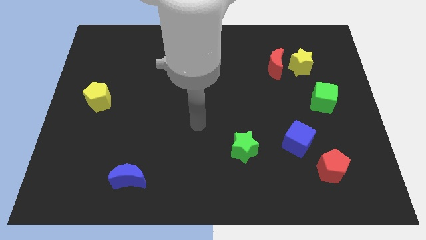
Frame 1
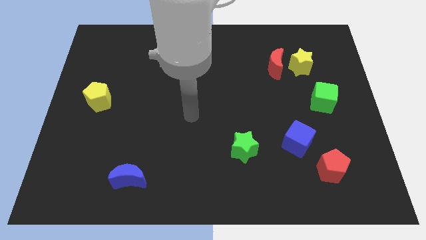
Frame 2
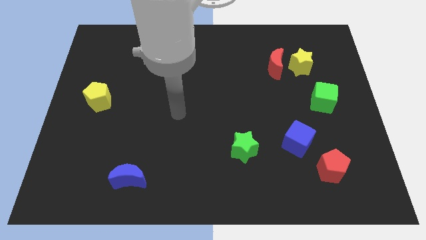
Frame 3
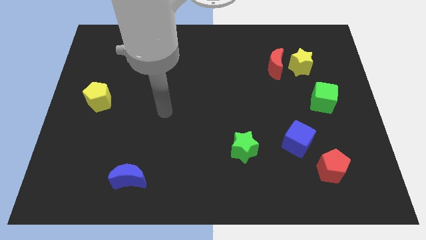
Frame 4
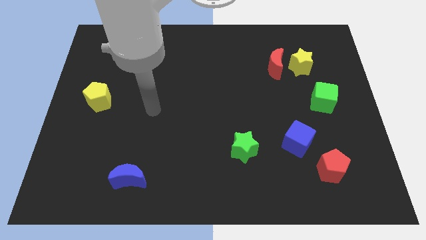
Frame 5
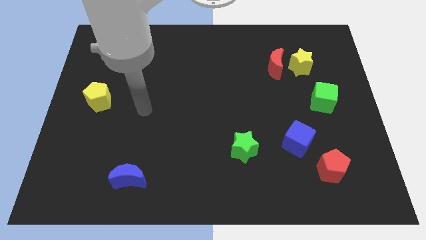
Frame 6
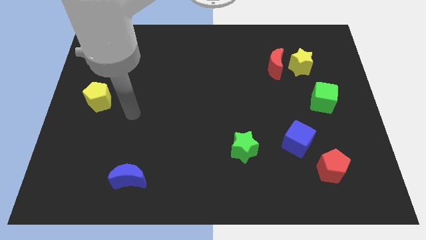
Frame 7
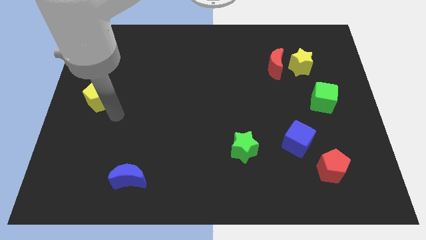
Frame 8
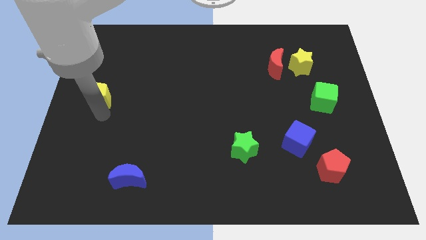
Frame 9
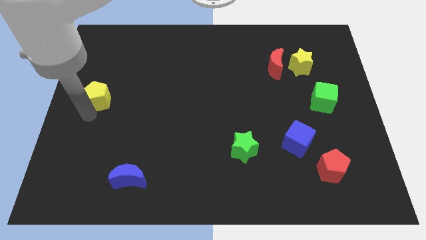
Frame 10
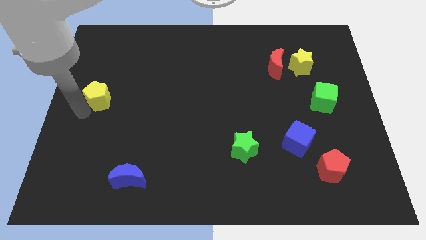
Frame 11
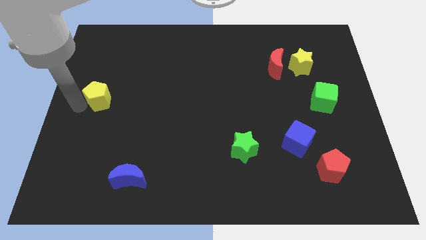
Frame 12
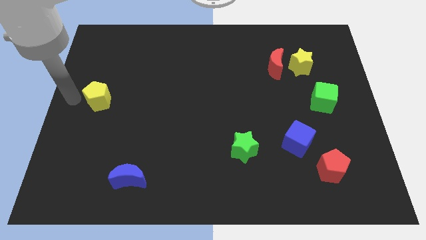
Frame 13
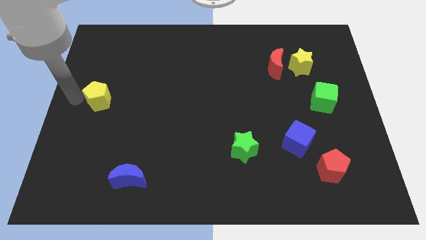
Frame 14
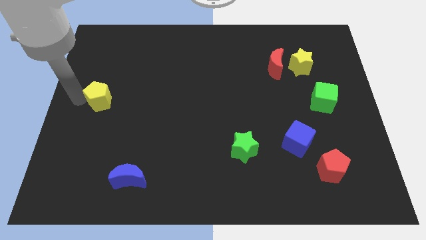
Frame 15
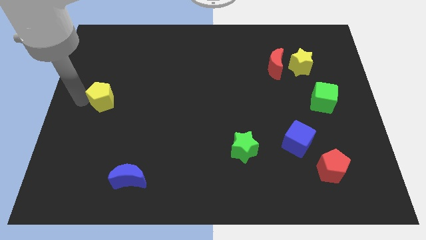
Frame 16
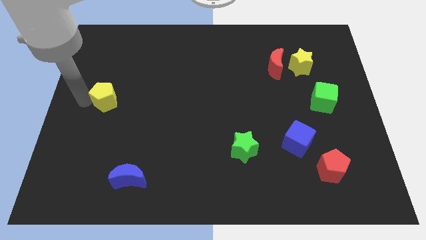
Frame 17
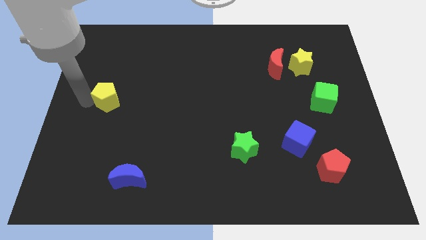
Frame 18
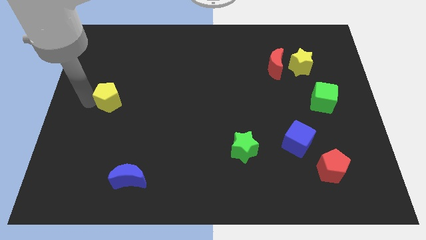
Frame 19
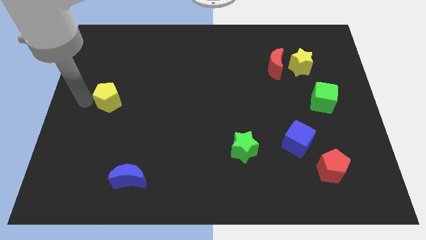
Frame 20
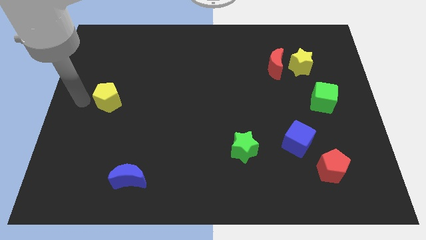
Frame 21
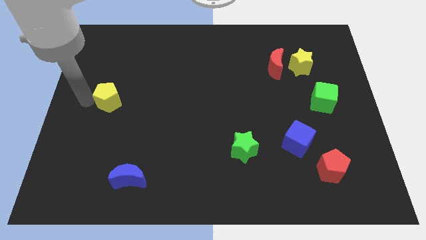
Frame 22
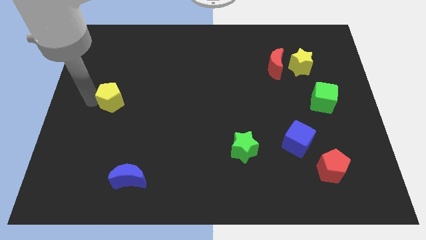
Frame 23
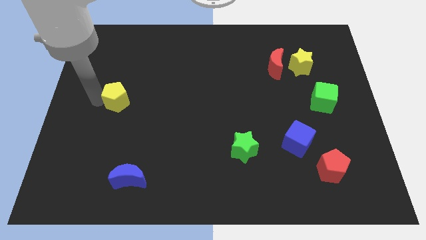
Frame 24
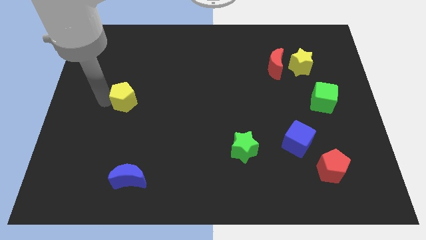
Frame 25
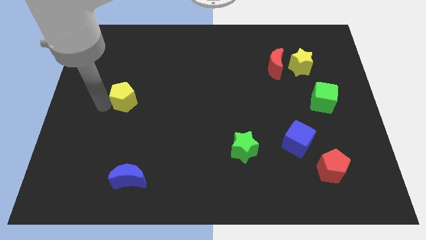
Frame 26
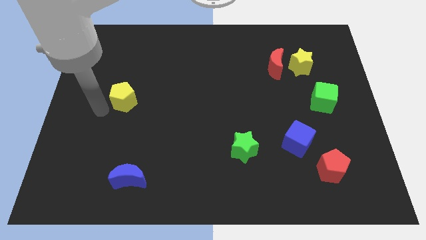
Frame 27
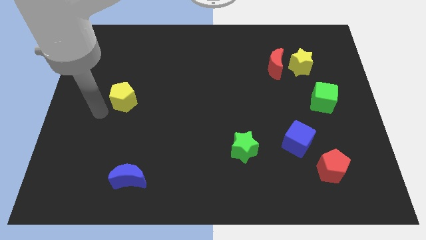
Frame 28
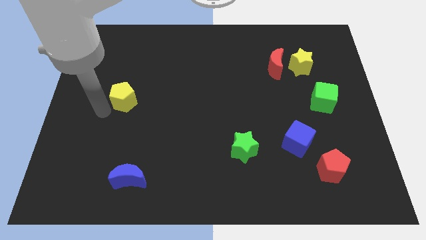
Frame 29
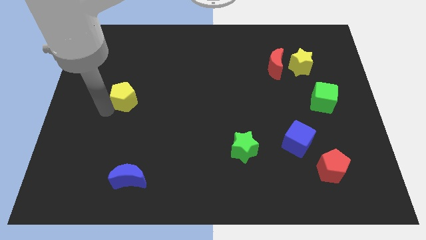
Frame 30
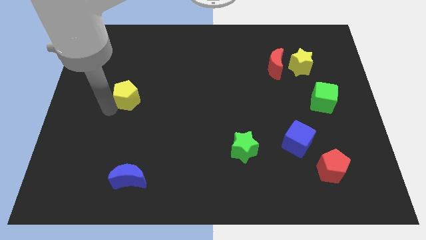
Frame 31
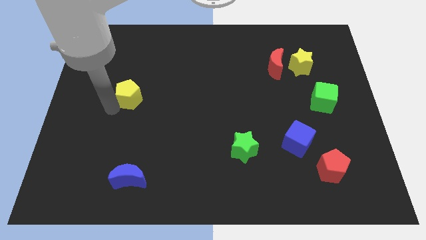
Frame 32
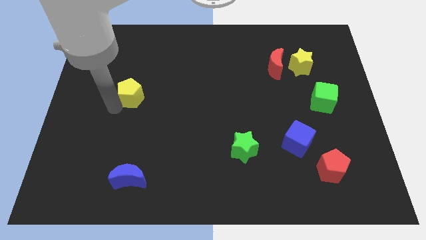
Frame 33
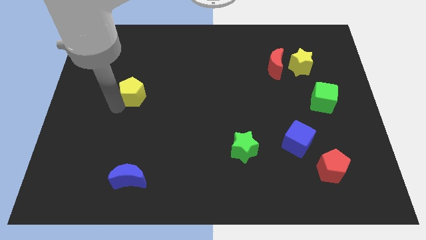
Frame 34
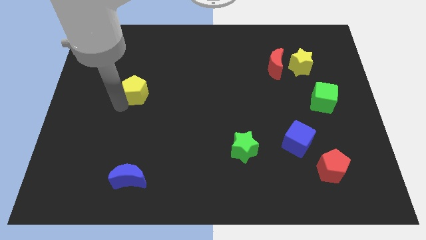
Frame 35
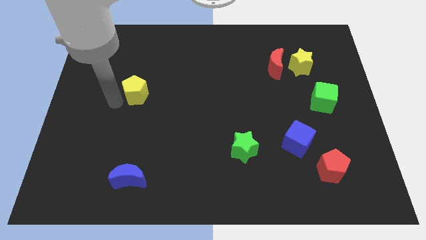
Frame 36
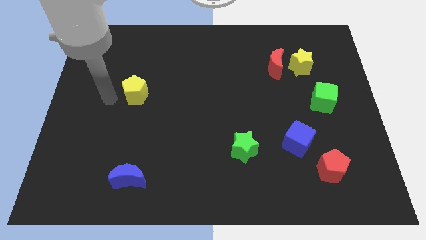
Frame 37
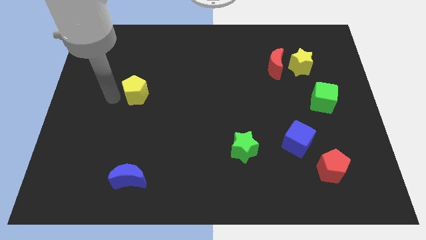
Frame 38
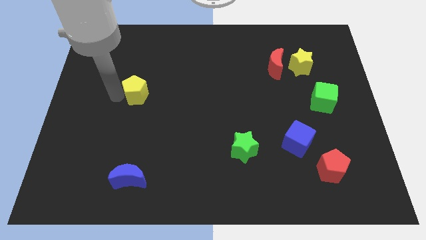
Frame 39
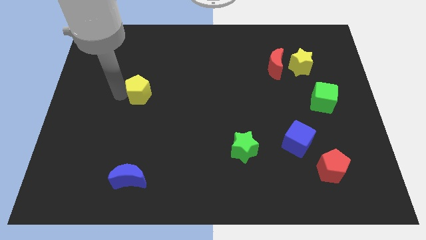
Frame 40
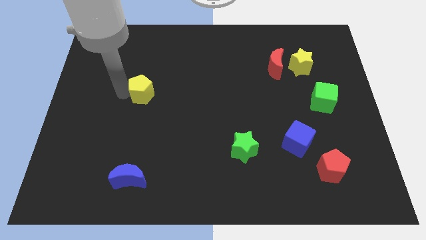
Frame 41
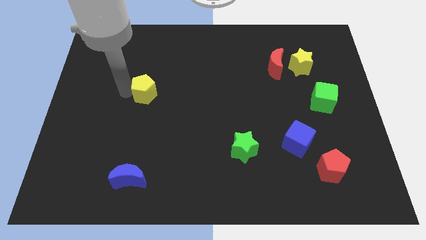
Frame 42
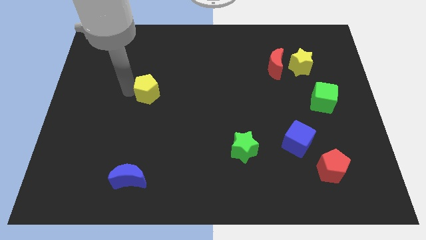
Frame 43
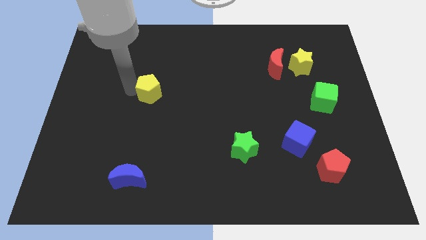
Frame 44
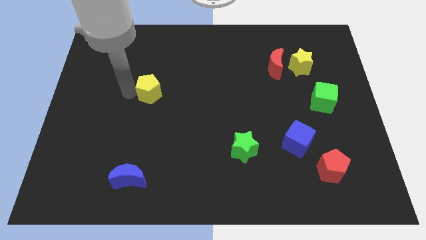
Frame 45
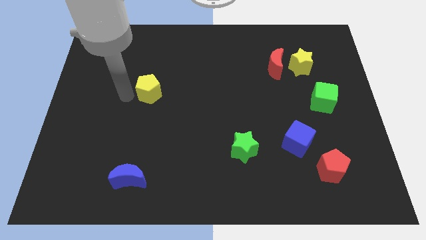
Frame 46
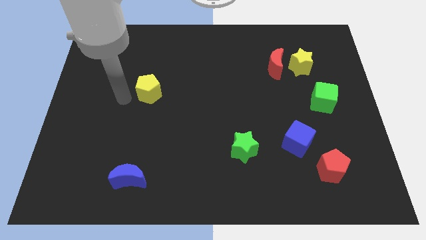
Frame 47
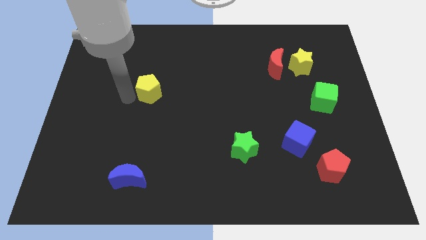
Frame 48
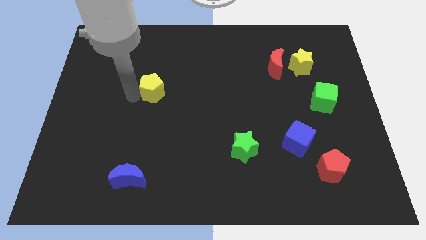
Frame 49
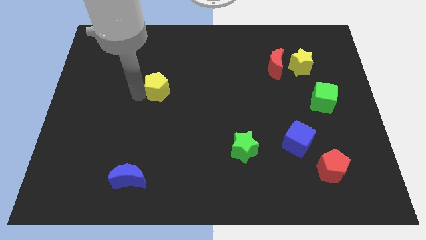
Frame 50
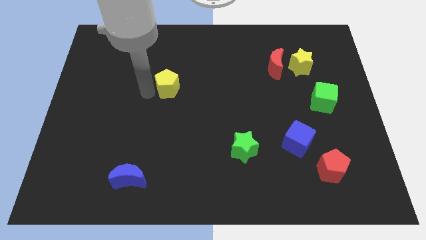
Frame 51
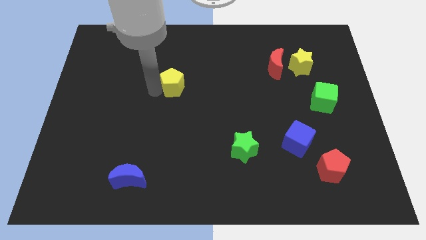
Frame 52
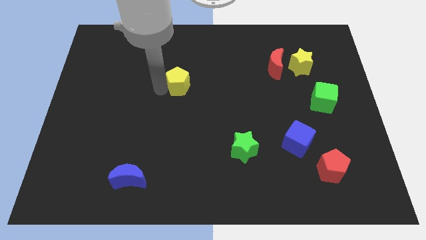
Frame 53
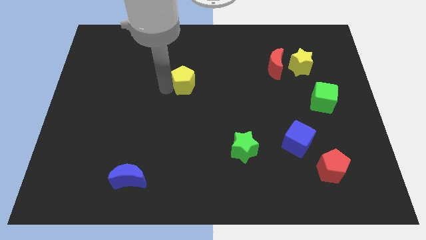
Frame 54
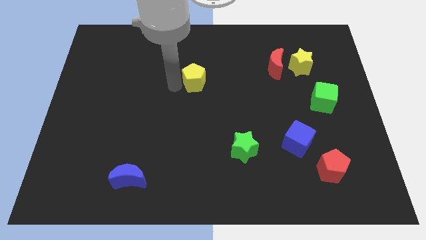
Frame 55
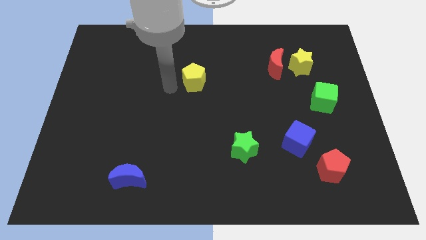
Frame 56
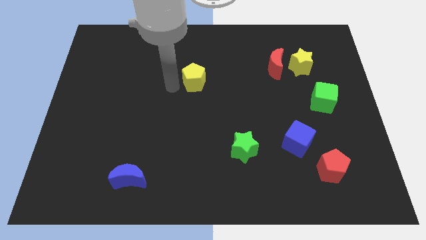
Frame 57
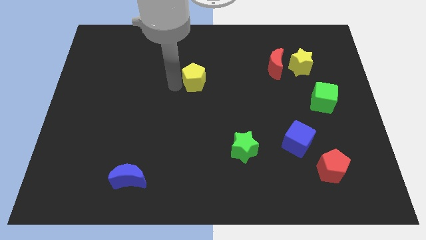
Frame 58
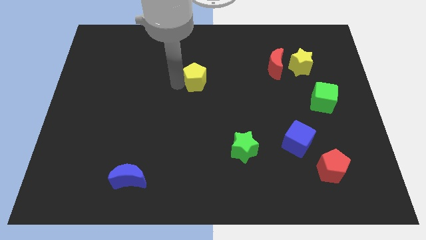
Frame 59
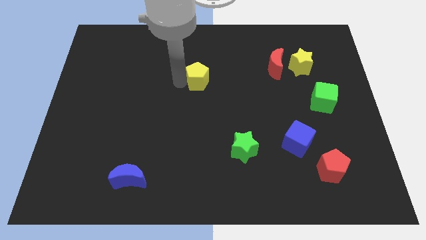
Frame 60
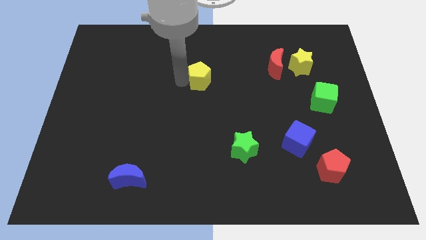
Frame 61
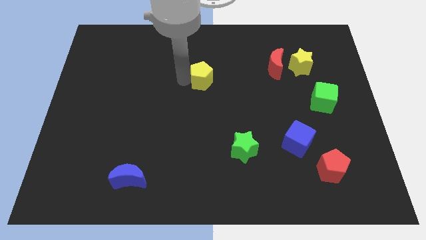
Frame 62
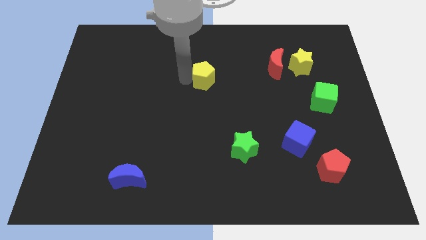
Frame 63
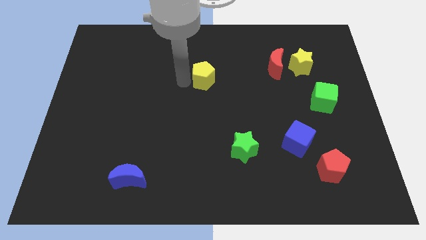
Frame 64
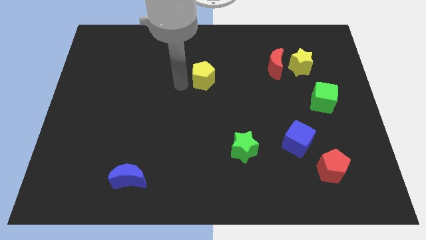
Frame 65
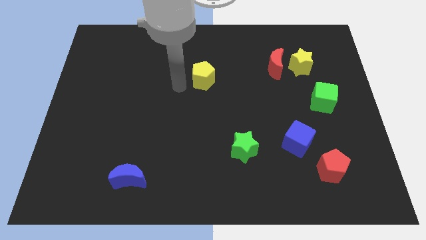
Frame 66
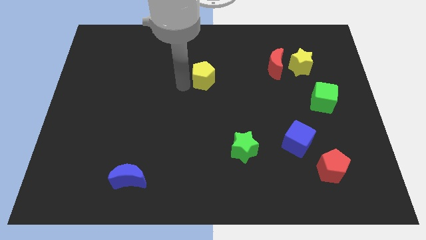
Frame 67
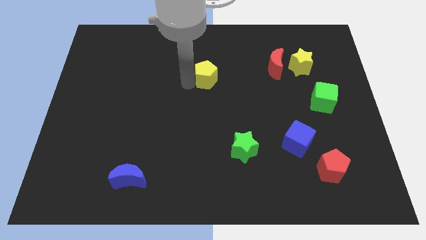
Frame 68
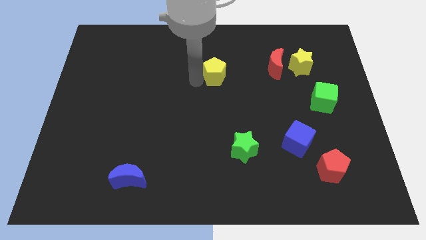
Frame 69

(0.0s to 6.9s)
slide the yellow pentagon to the left of the red moon
